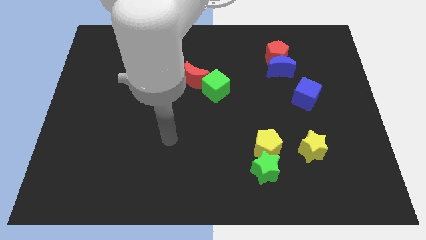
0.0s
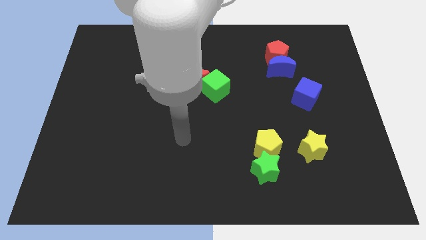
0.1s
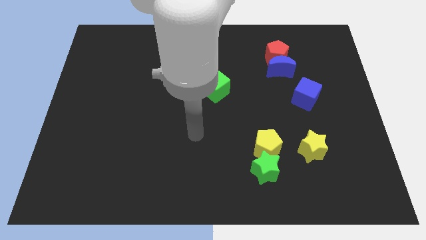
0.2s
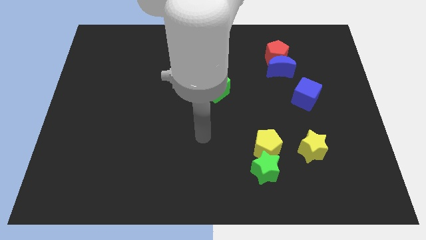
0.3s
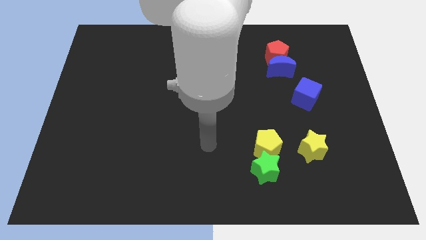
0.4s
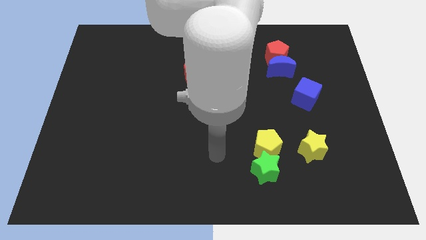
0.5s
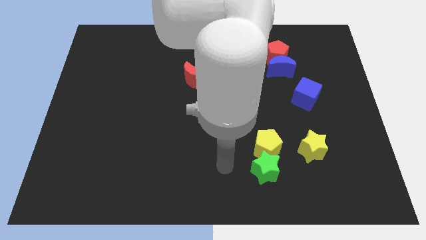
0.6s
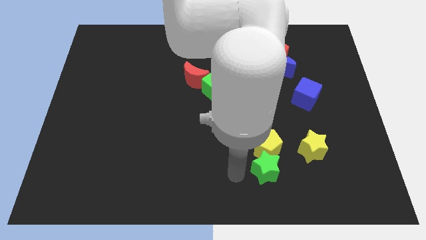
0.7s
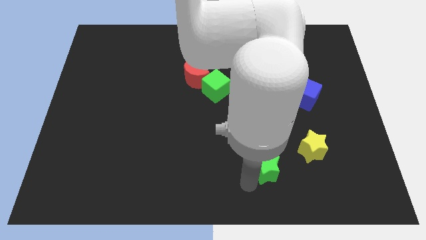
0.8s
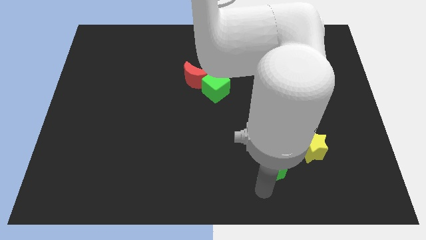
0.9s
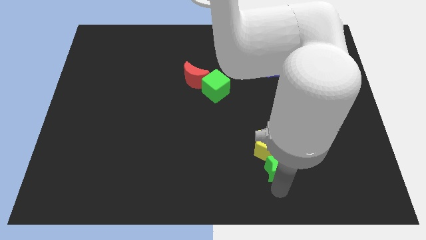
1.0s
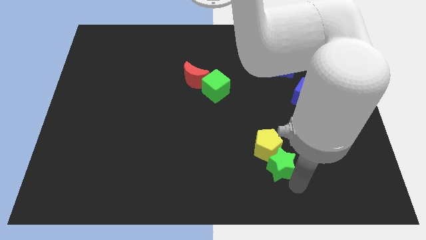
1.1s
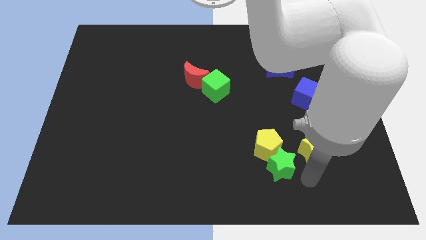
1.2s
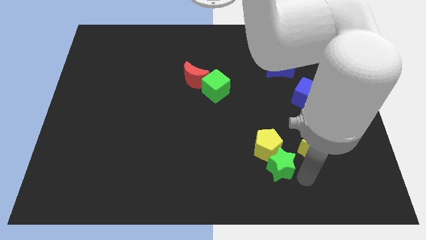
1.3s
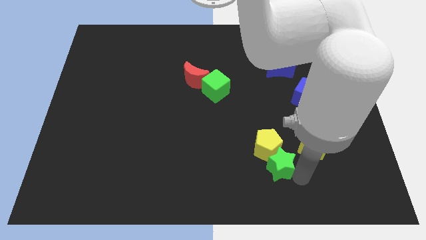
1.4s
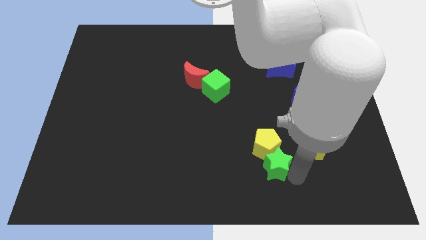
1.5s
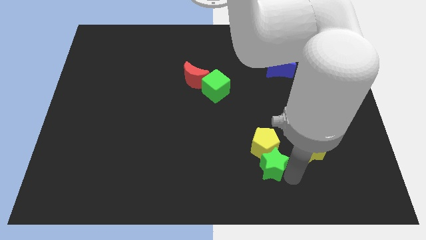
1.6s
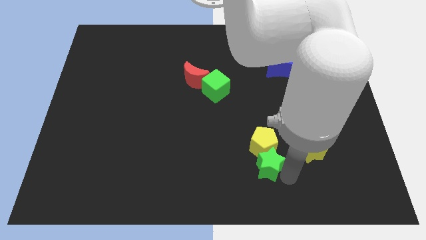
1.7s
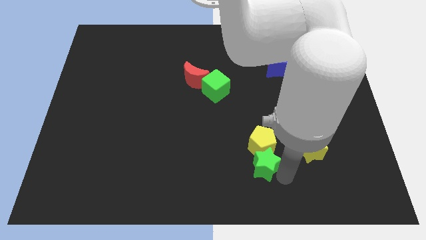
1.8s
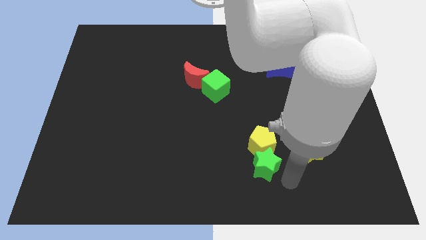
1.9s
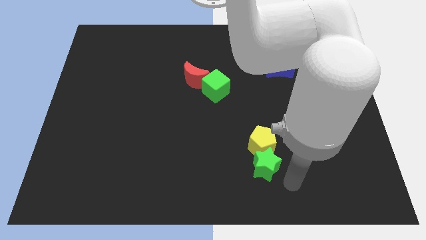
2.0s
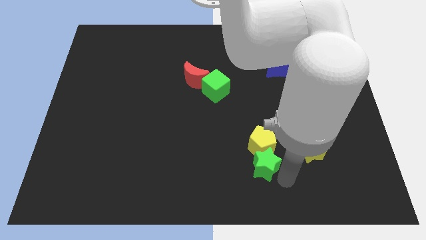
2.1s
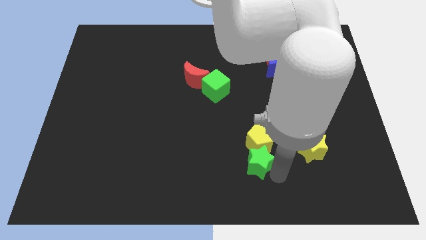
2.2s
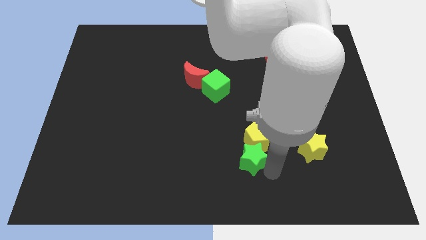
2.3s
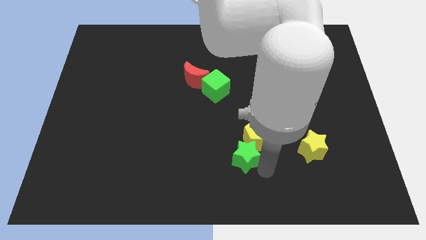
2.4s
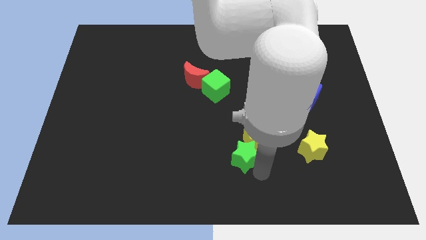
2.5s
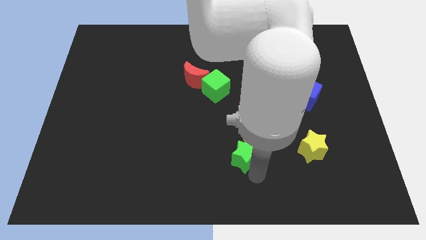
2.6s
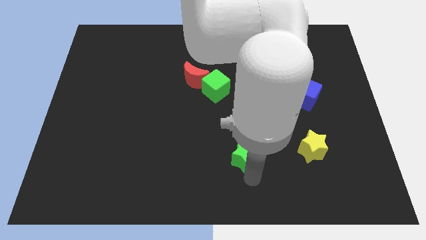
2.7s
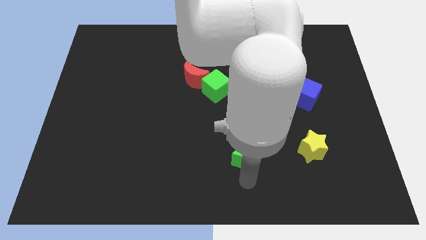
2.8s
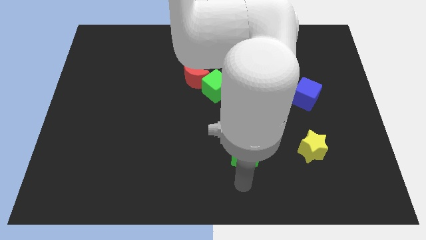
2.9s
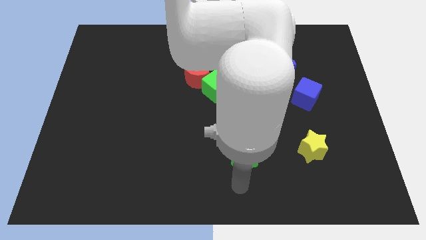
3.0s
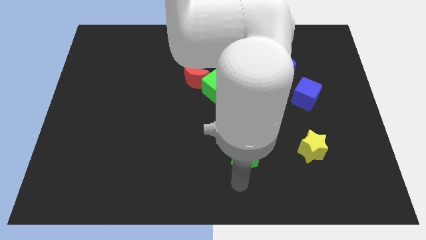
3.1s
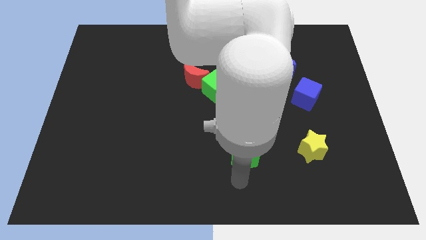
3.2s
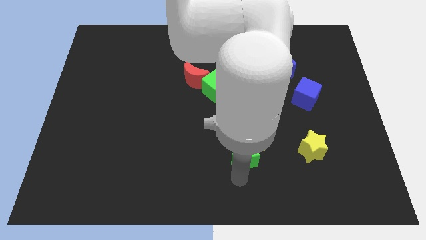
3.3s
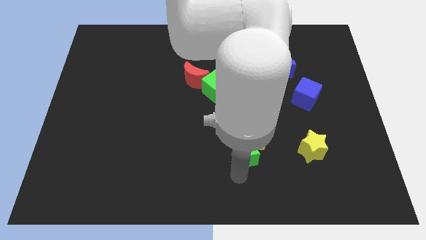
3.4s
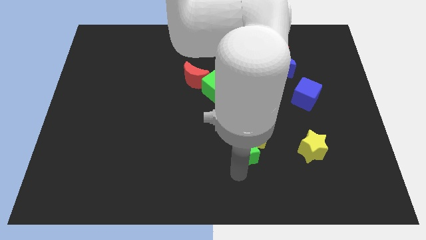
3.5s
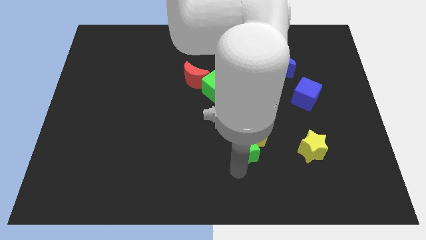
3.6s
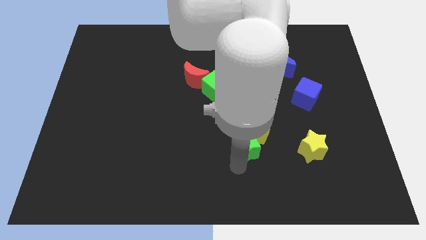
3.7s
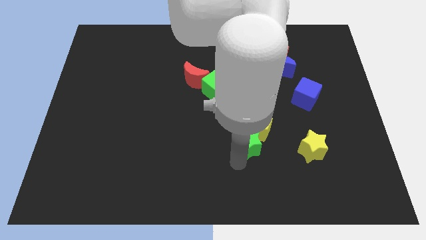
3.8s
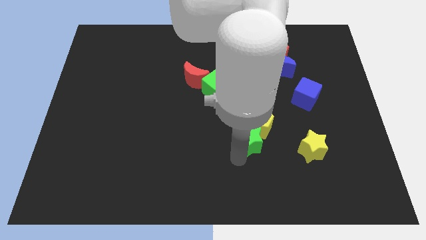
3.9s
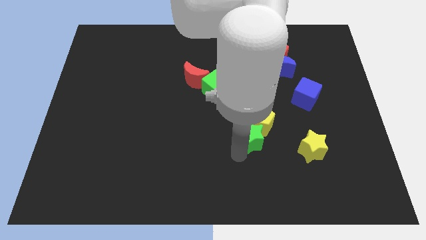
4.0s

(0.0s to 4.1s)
slightly push the green star up

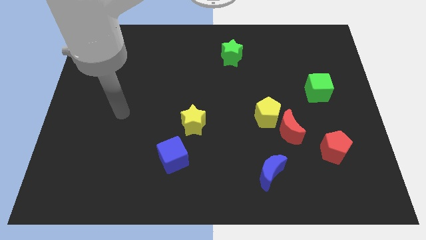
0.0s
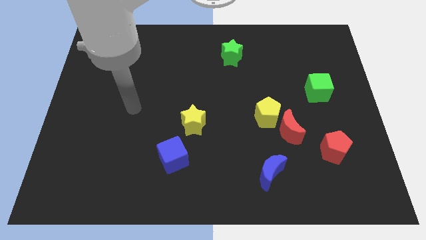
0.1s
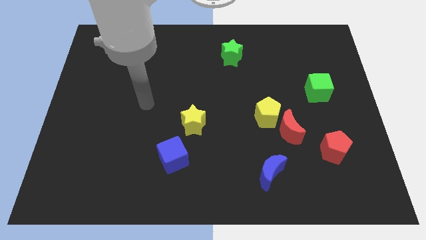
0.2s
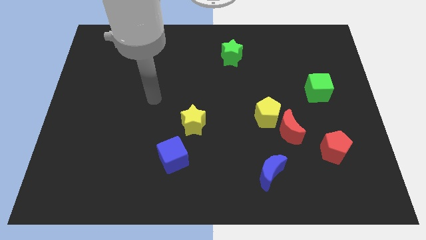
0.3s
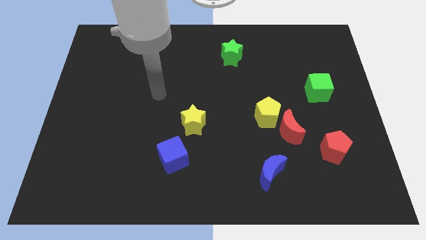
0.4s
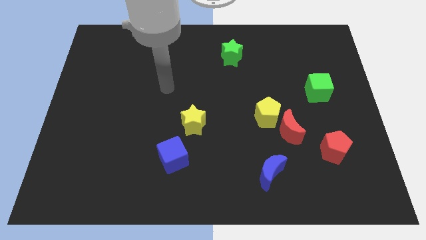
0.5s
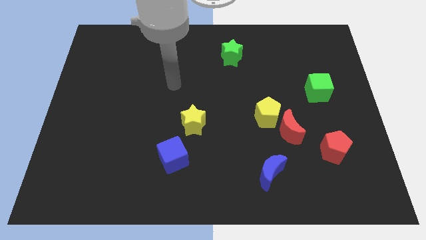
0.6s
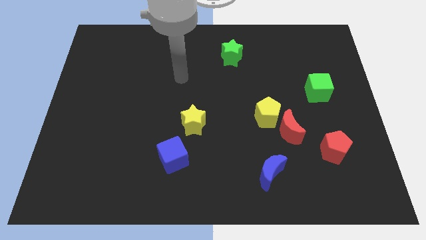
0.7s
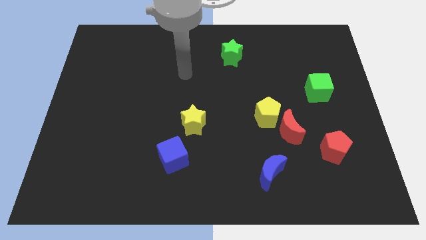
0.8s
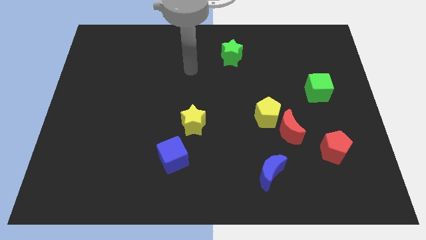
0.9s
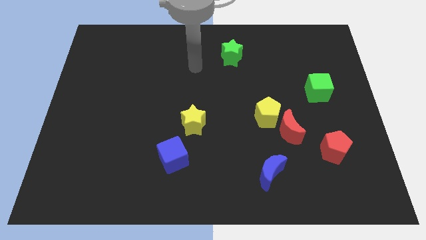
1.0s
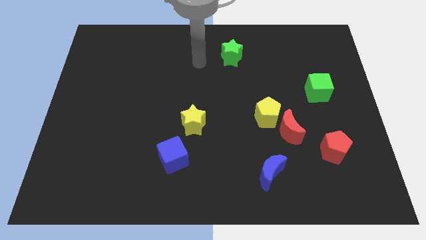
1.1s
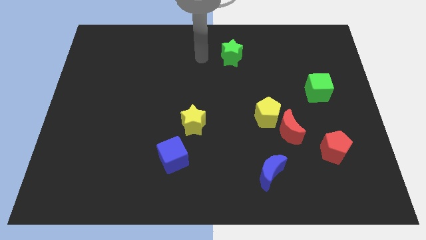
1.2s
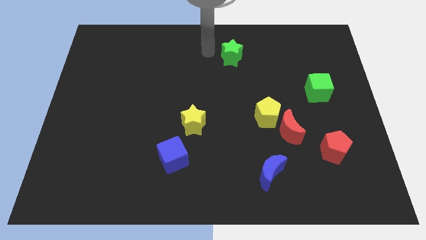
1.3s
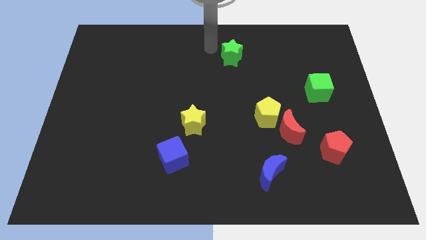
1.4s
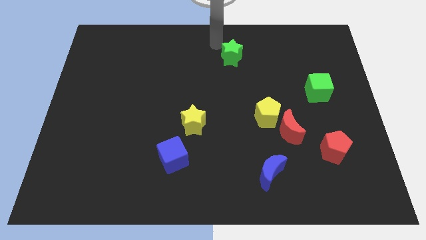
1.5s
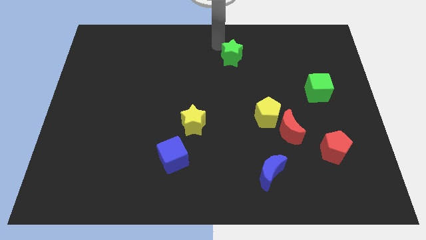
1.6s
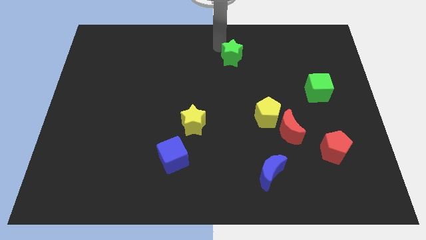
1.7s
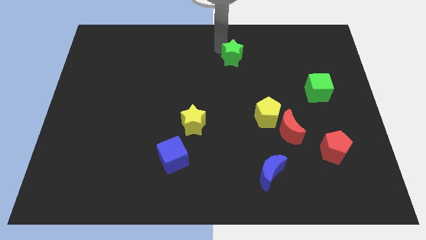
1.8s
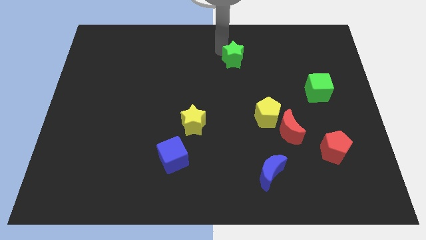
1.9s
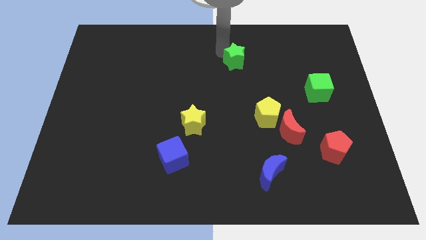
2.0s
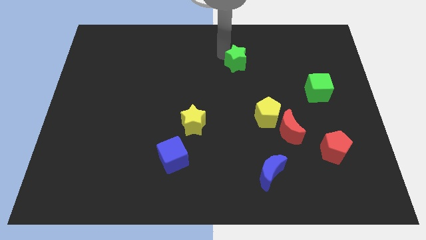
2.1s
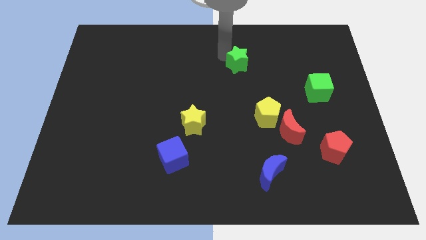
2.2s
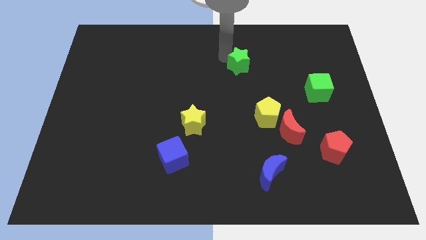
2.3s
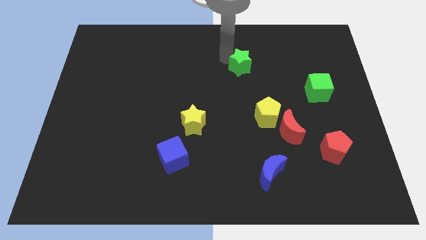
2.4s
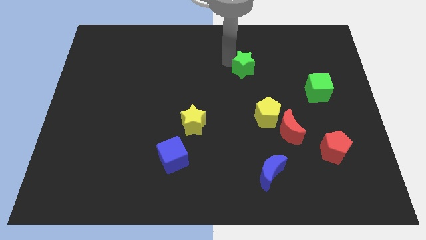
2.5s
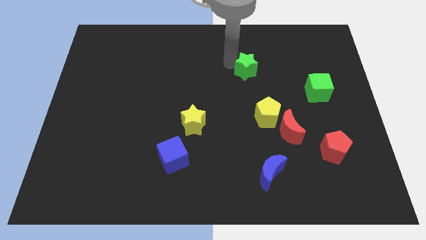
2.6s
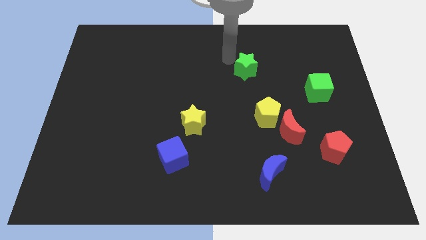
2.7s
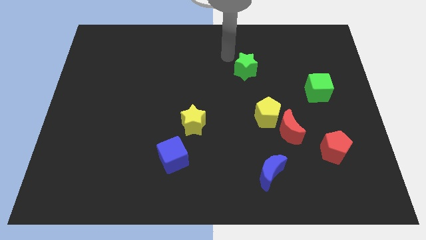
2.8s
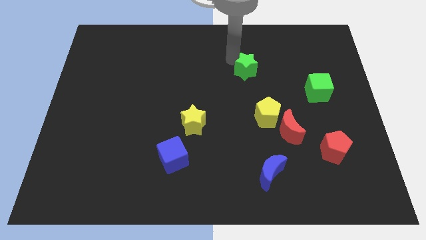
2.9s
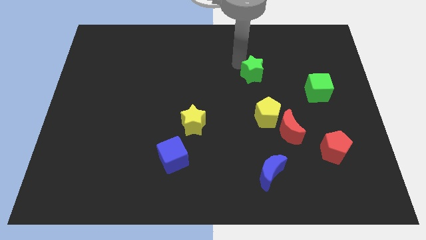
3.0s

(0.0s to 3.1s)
slightly slide the green star down and right

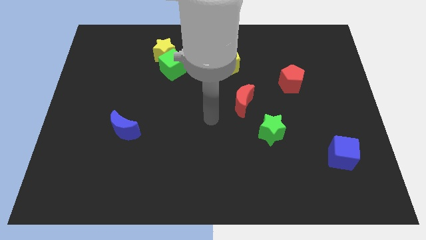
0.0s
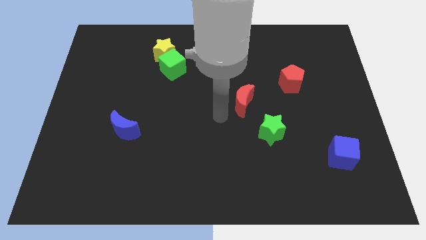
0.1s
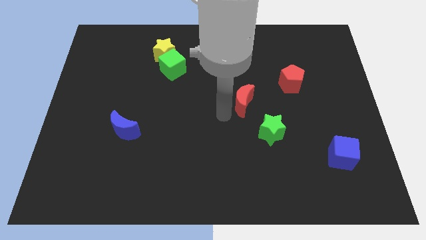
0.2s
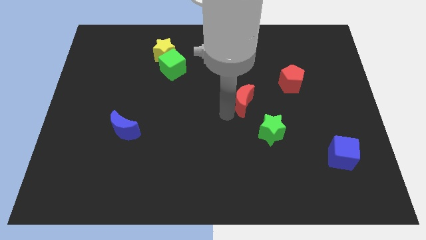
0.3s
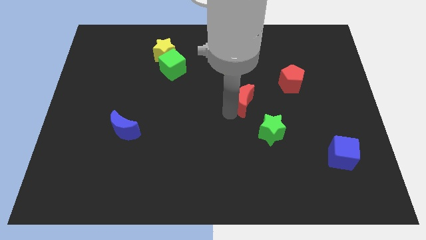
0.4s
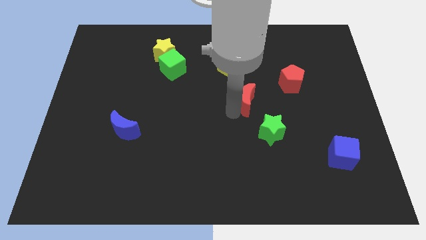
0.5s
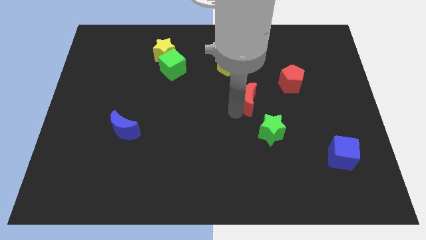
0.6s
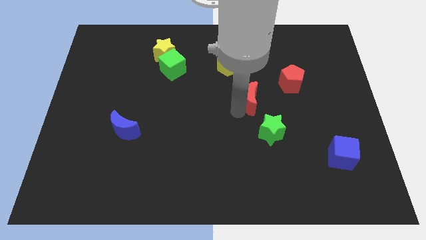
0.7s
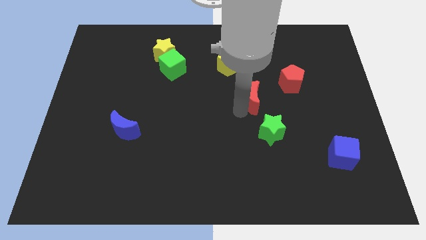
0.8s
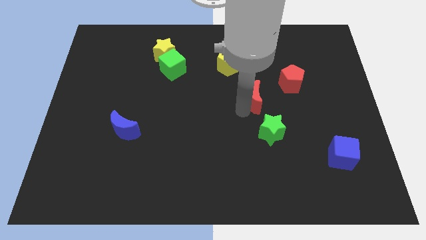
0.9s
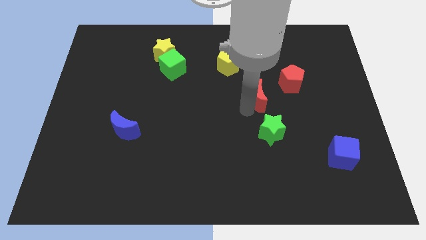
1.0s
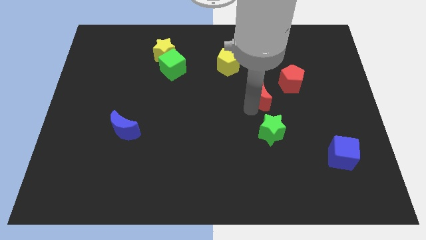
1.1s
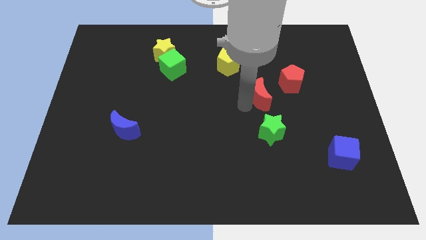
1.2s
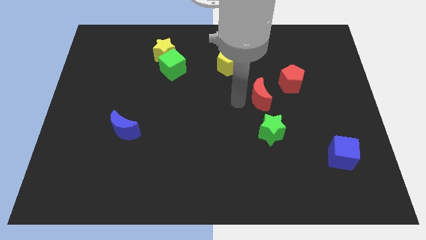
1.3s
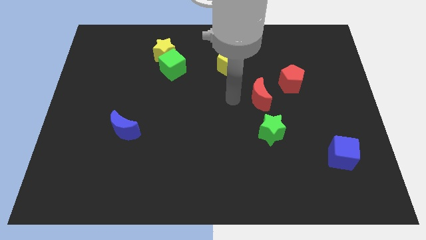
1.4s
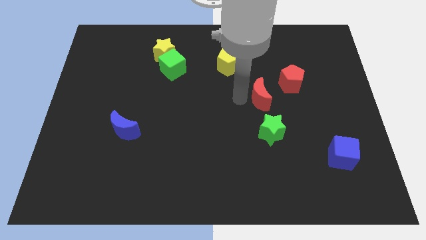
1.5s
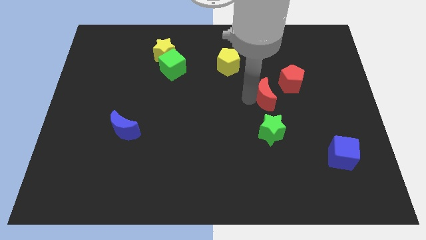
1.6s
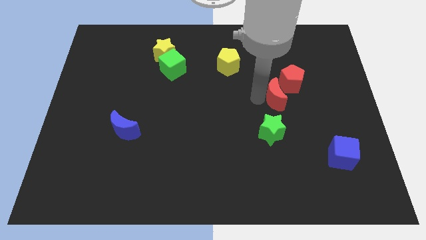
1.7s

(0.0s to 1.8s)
move the red moon to the right a little bit
